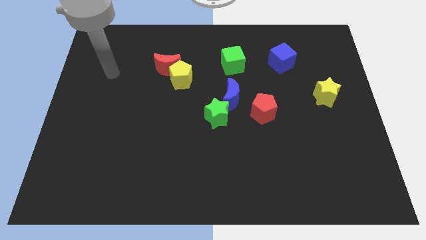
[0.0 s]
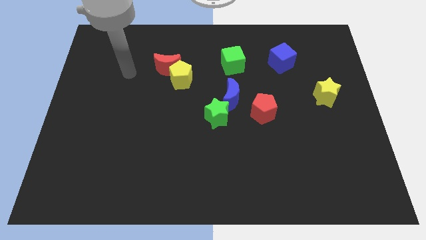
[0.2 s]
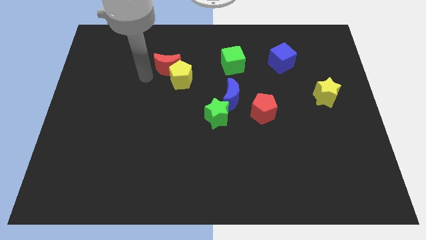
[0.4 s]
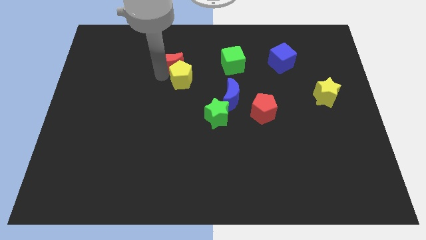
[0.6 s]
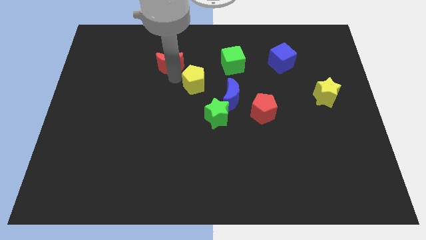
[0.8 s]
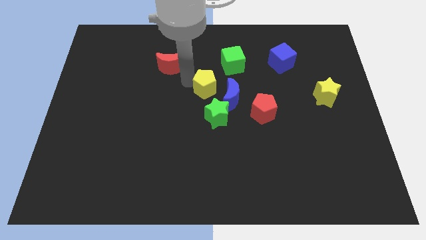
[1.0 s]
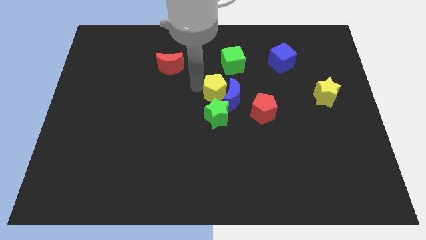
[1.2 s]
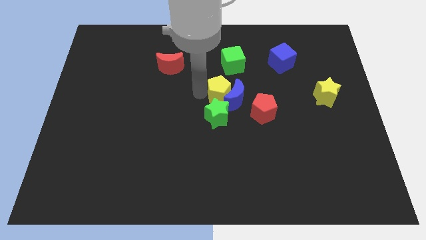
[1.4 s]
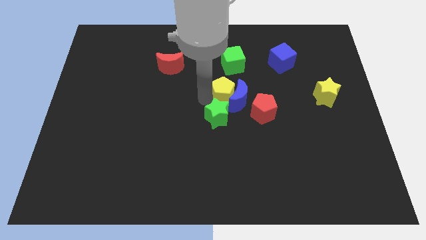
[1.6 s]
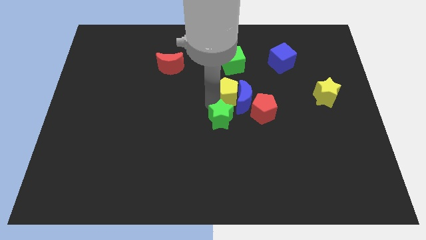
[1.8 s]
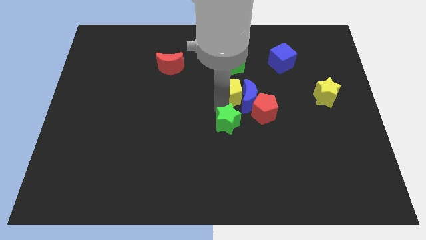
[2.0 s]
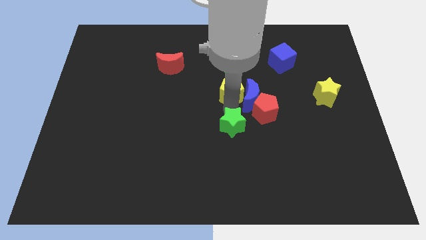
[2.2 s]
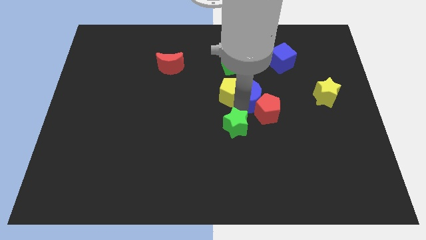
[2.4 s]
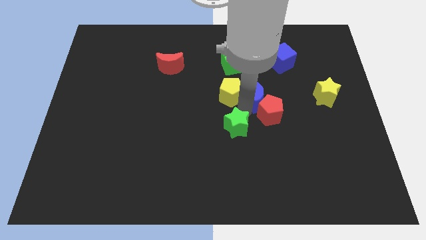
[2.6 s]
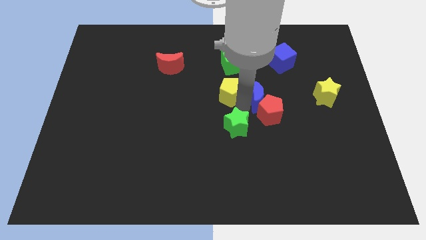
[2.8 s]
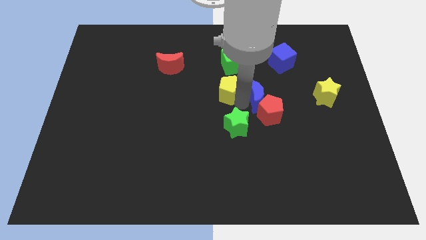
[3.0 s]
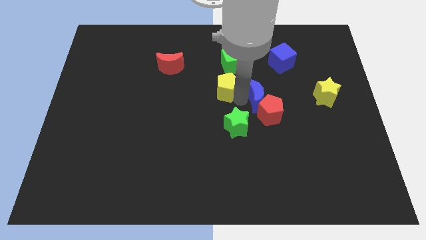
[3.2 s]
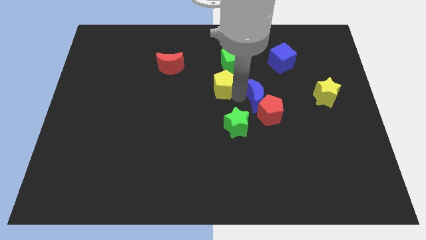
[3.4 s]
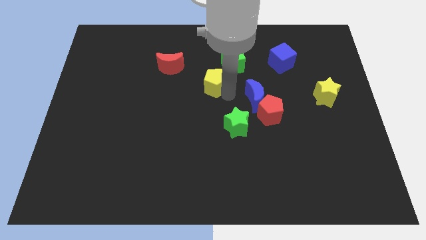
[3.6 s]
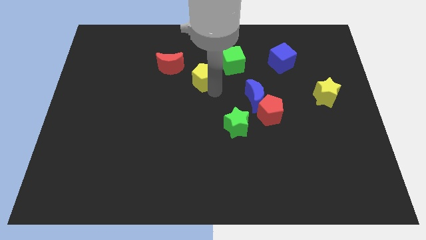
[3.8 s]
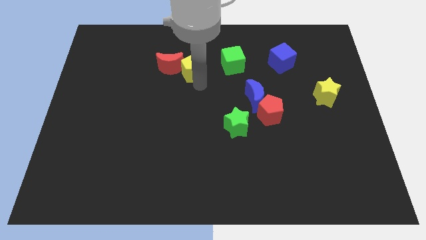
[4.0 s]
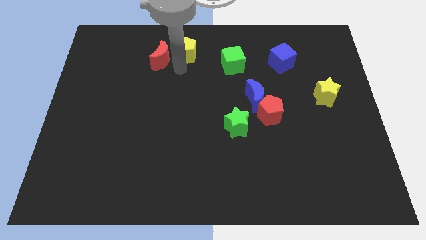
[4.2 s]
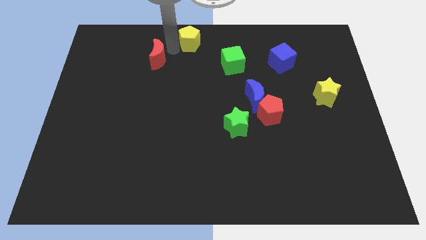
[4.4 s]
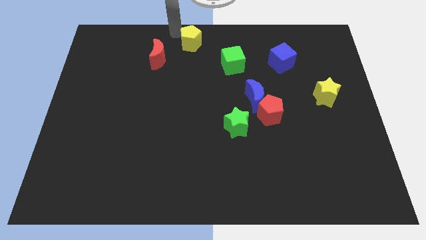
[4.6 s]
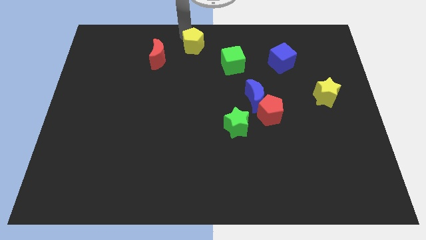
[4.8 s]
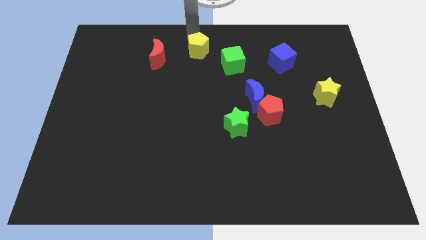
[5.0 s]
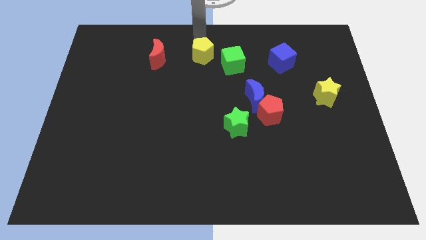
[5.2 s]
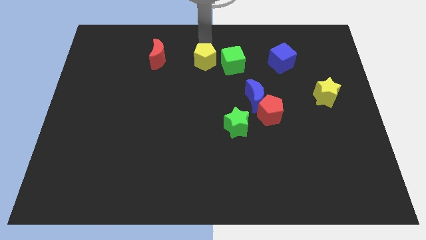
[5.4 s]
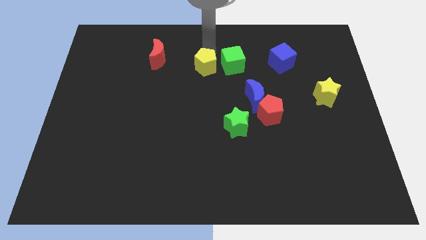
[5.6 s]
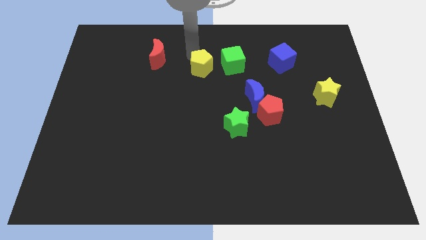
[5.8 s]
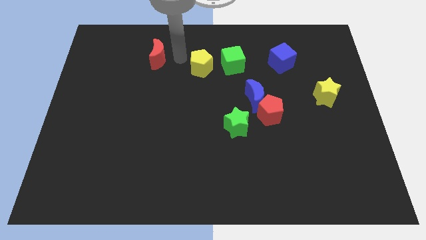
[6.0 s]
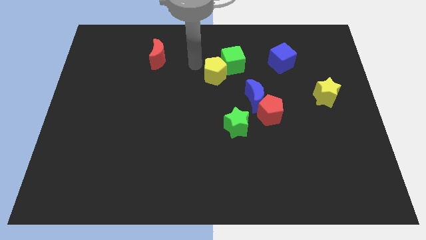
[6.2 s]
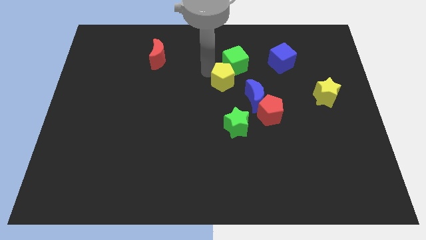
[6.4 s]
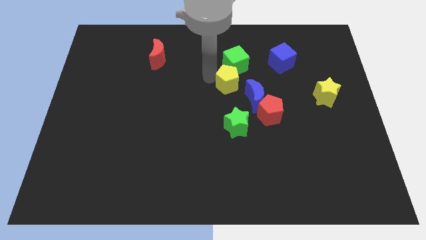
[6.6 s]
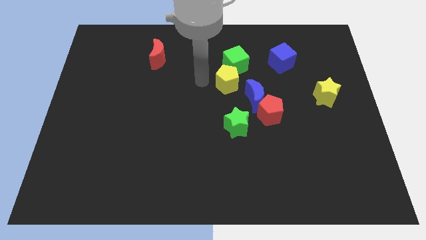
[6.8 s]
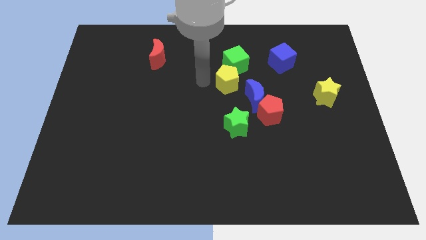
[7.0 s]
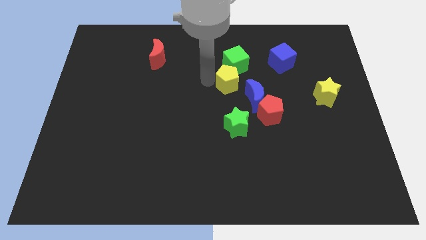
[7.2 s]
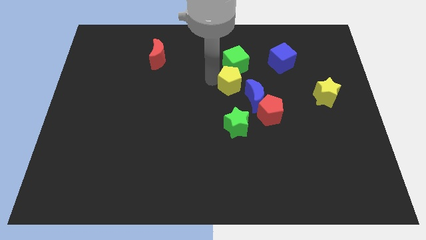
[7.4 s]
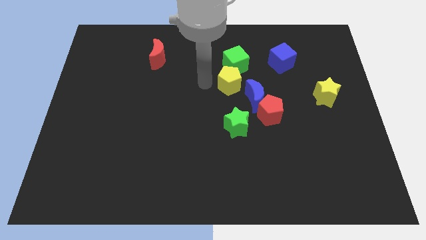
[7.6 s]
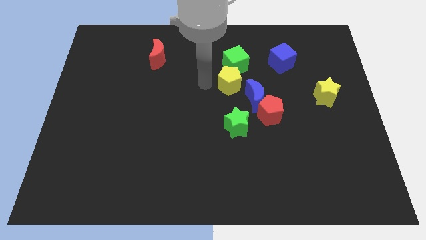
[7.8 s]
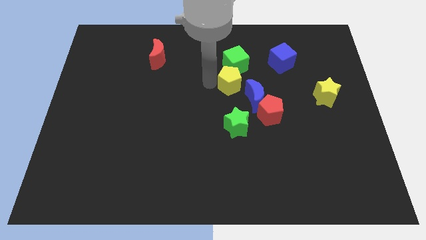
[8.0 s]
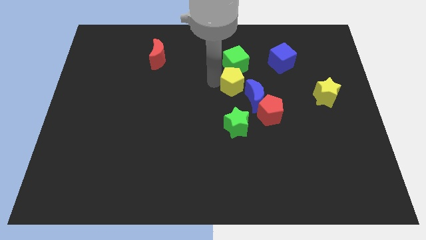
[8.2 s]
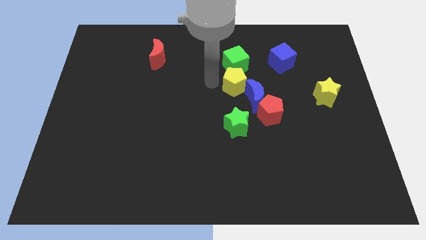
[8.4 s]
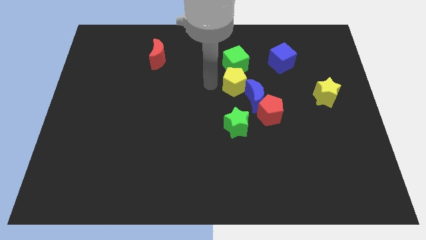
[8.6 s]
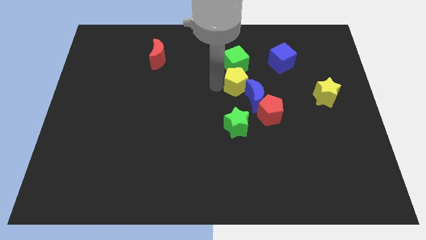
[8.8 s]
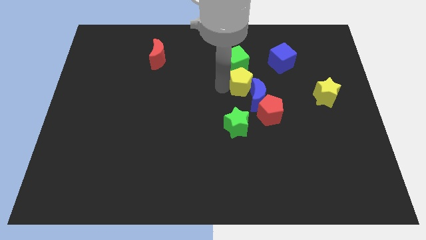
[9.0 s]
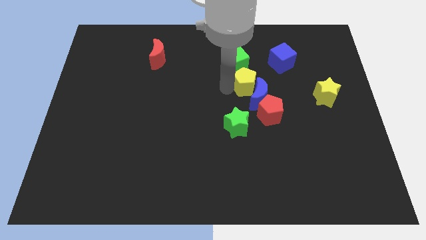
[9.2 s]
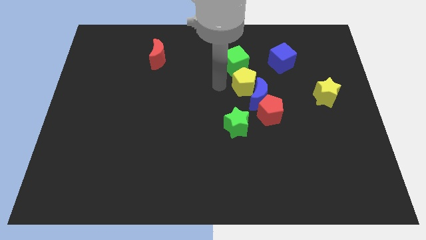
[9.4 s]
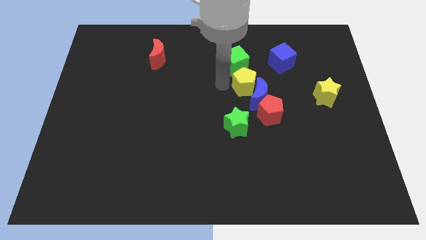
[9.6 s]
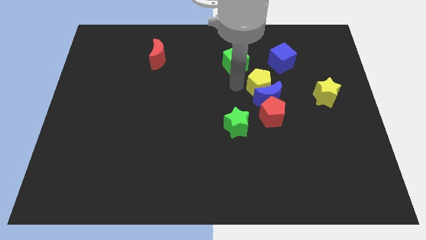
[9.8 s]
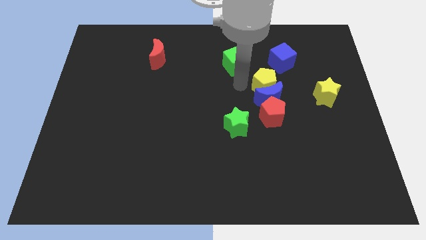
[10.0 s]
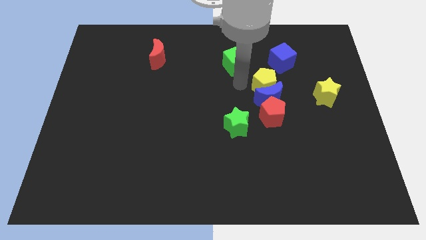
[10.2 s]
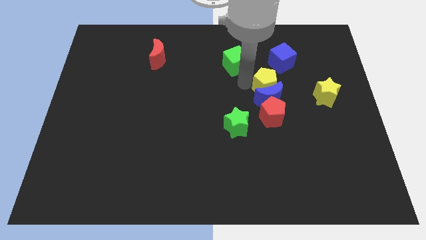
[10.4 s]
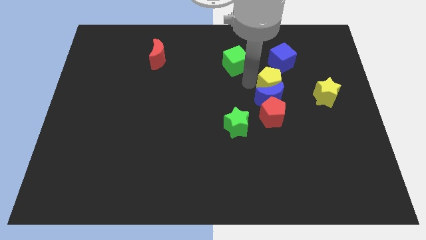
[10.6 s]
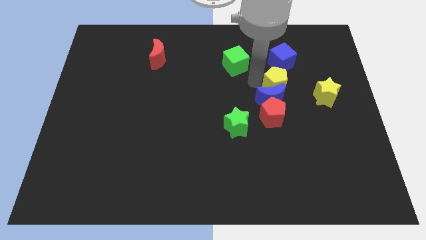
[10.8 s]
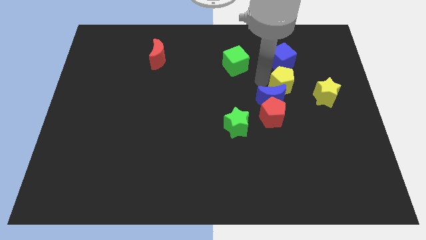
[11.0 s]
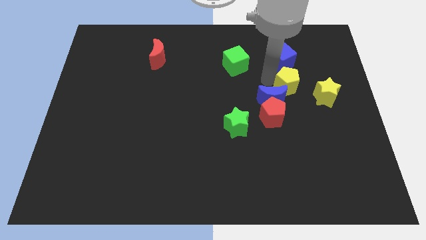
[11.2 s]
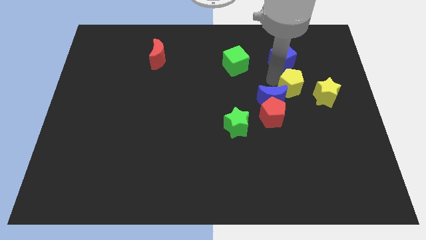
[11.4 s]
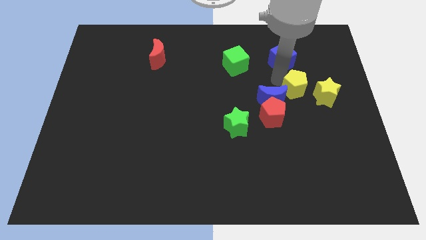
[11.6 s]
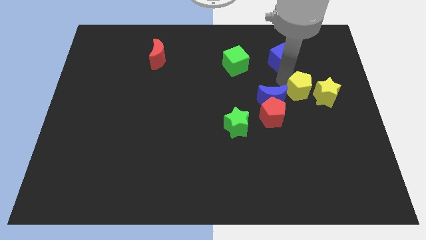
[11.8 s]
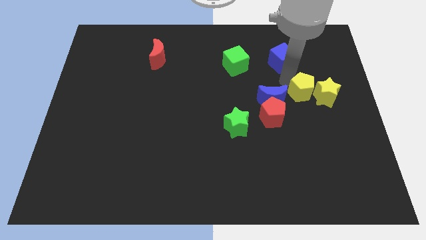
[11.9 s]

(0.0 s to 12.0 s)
slide the yellow pentagon towards the yellow star

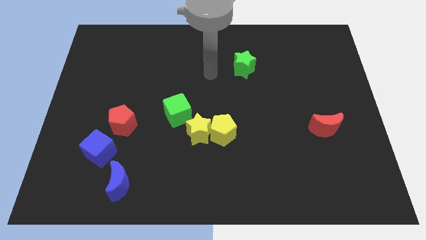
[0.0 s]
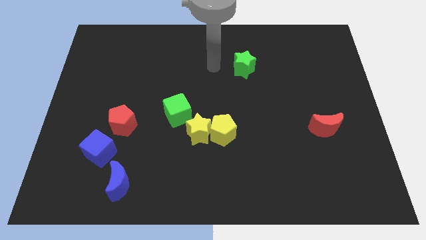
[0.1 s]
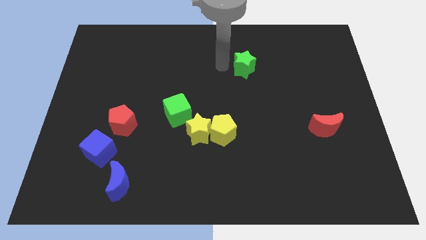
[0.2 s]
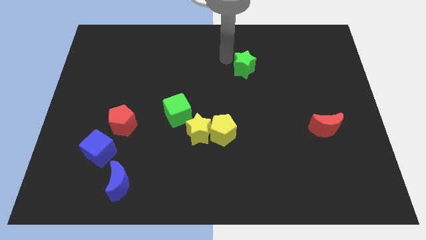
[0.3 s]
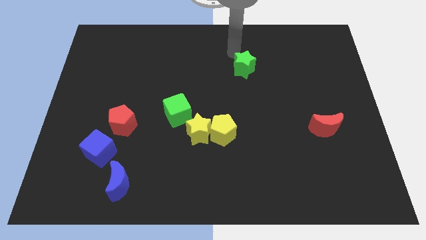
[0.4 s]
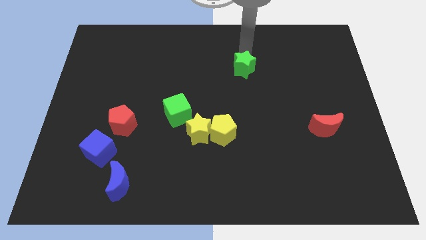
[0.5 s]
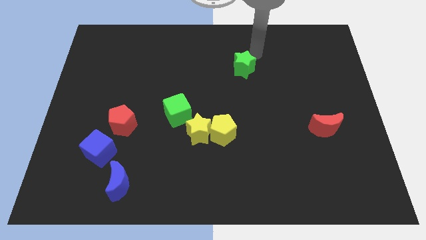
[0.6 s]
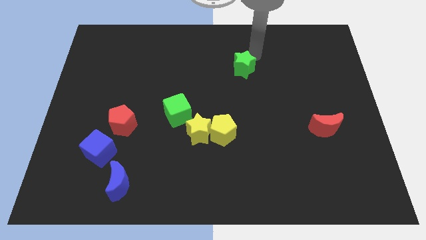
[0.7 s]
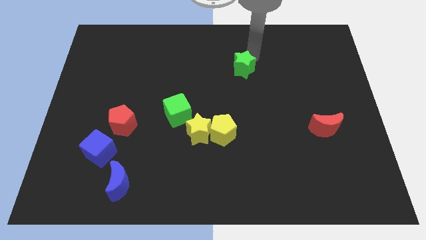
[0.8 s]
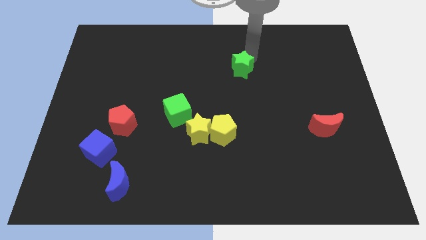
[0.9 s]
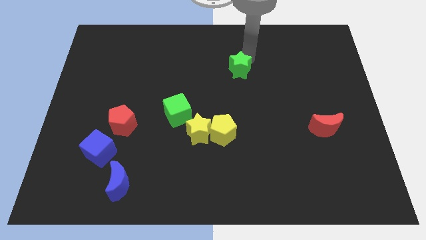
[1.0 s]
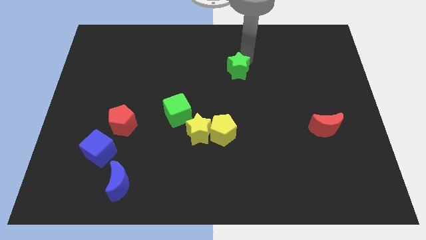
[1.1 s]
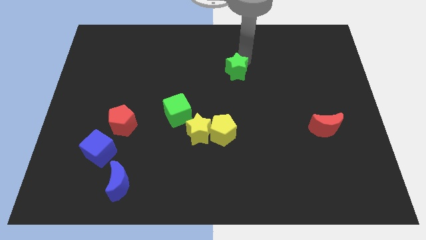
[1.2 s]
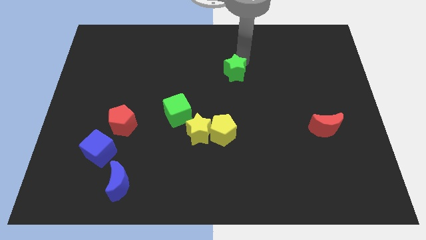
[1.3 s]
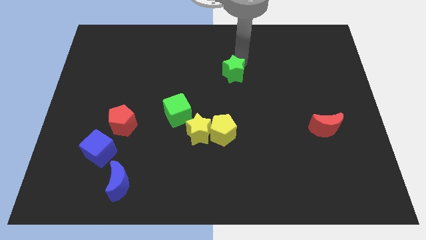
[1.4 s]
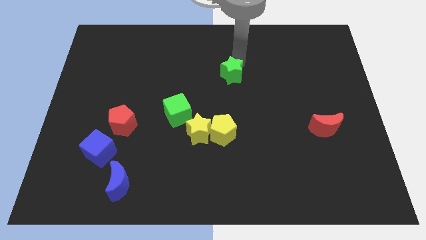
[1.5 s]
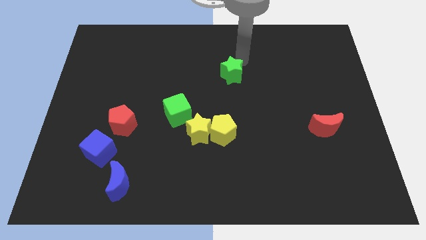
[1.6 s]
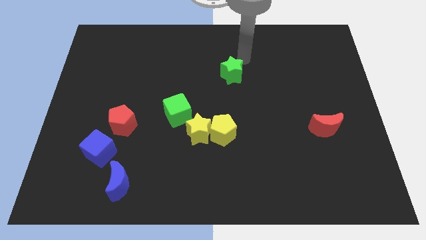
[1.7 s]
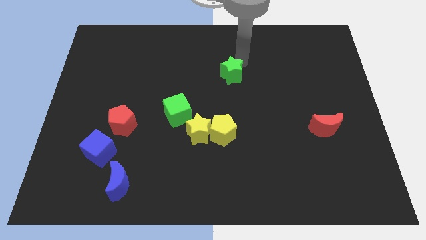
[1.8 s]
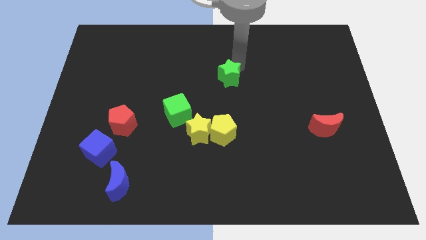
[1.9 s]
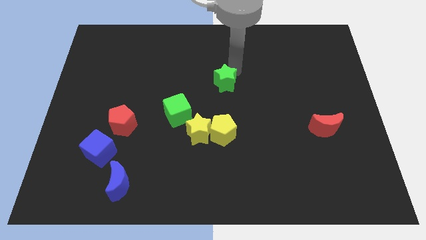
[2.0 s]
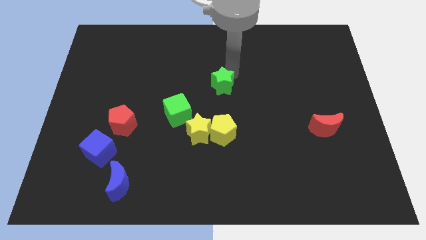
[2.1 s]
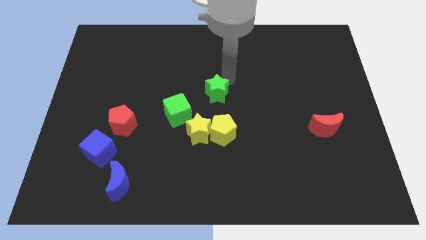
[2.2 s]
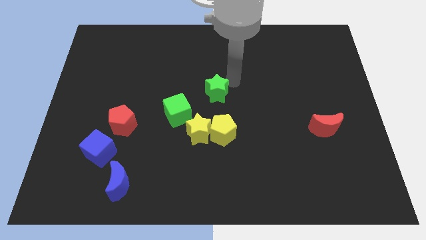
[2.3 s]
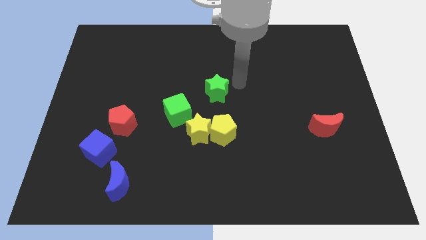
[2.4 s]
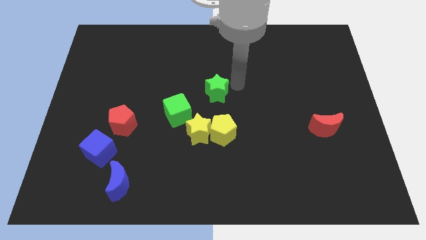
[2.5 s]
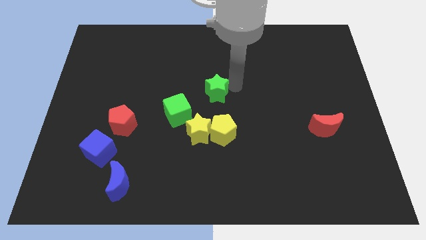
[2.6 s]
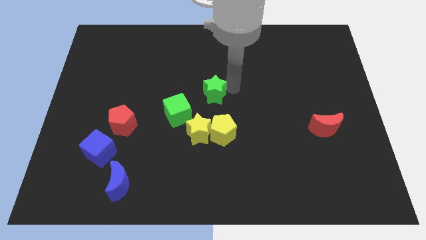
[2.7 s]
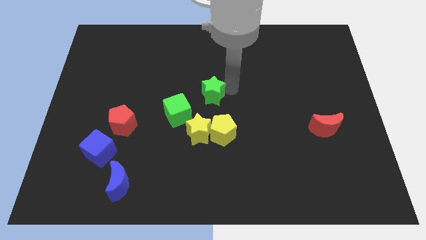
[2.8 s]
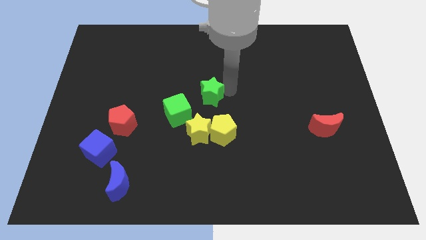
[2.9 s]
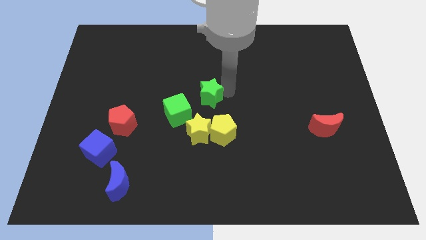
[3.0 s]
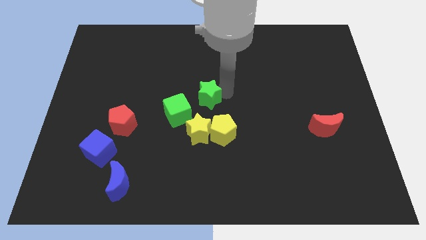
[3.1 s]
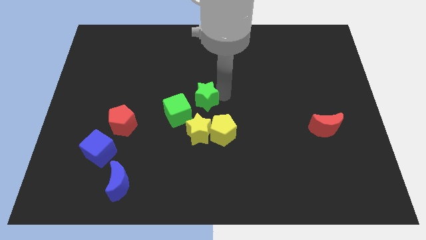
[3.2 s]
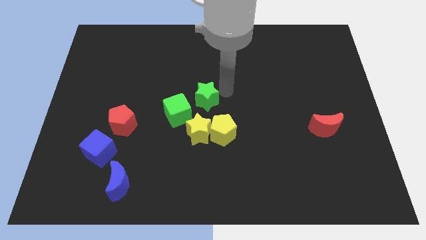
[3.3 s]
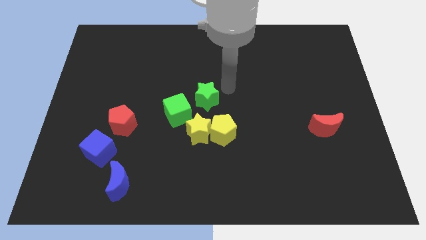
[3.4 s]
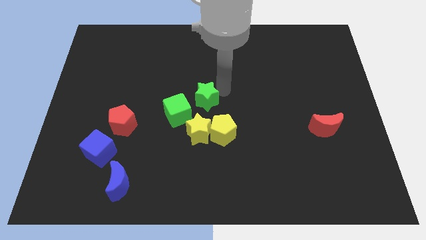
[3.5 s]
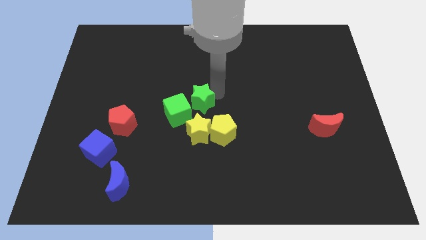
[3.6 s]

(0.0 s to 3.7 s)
move the green star close to the green cube
